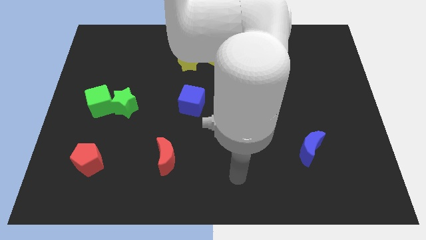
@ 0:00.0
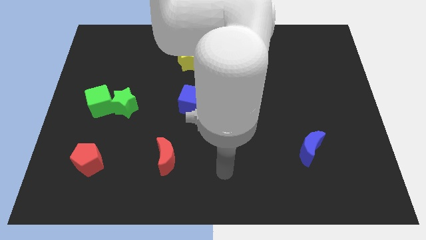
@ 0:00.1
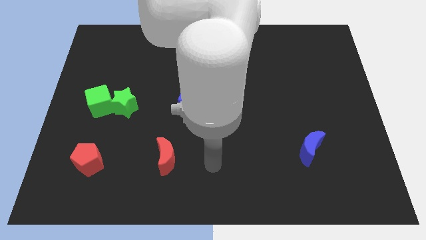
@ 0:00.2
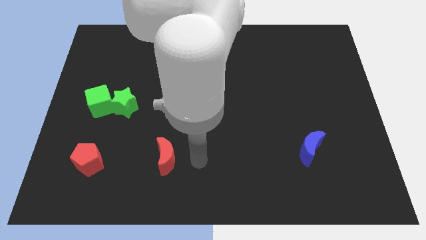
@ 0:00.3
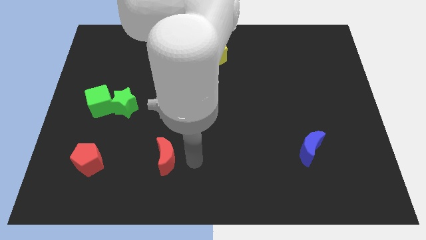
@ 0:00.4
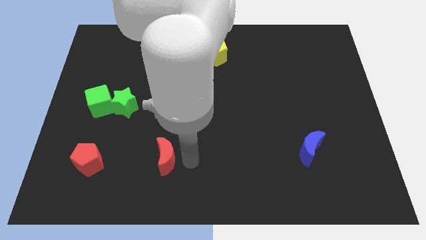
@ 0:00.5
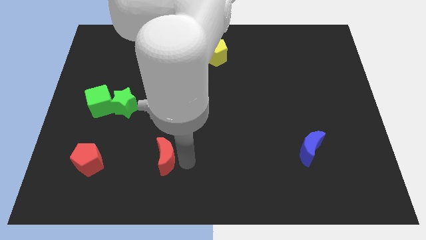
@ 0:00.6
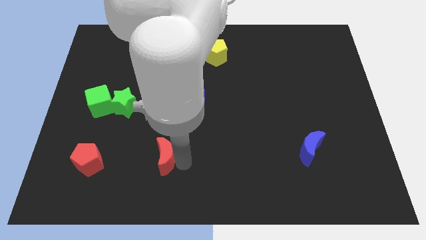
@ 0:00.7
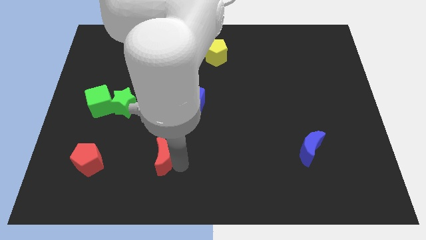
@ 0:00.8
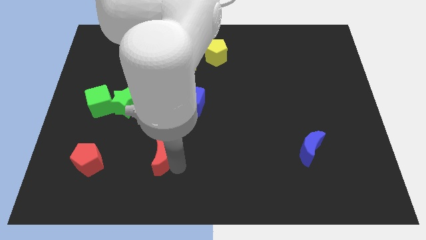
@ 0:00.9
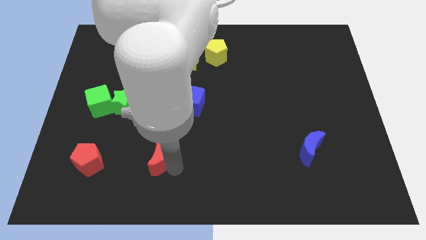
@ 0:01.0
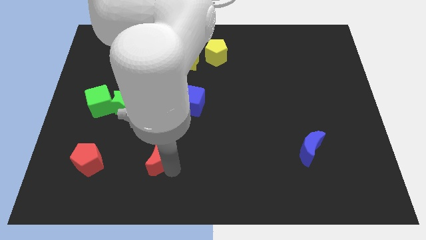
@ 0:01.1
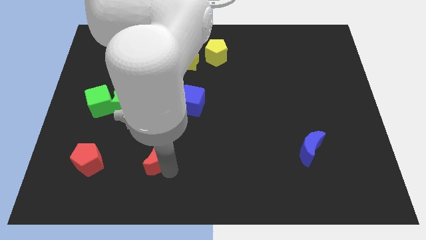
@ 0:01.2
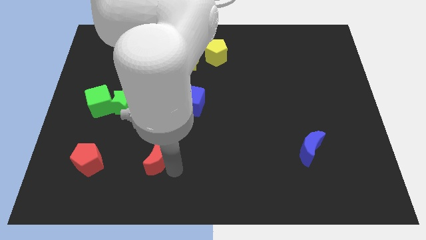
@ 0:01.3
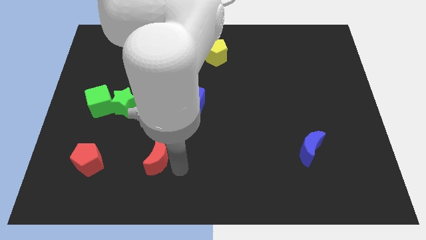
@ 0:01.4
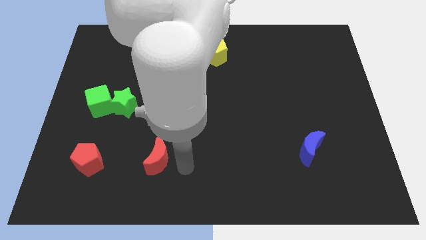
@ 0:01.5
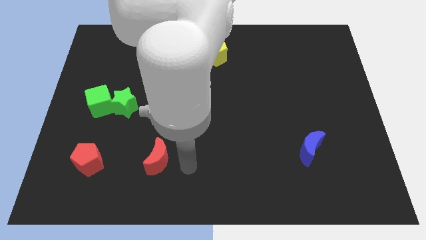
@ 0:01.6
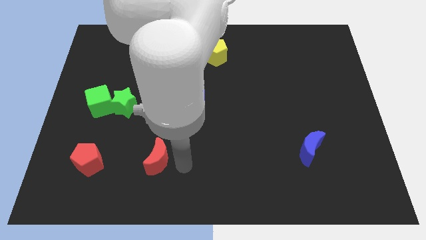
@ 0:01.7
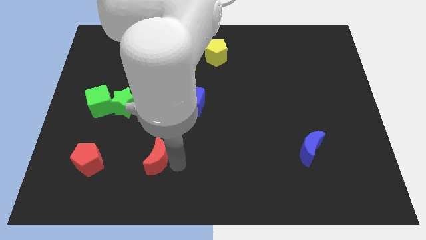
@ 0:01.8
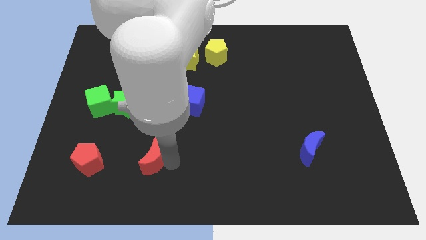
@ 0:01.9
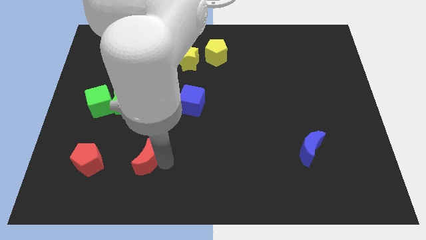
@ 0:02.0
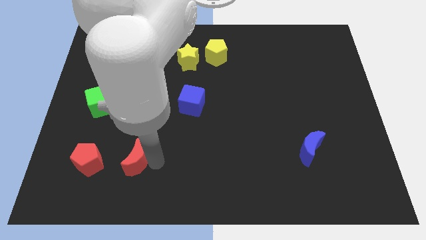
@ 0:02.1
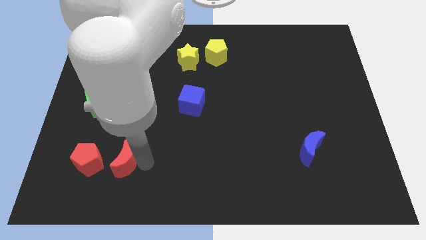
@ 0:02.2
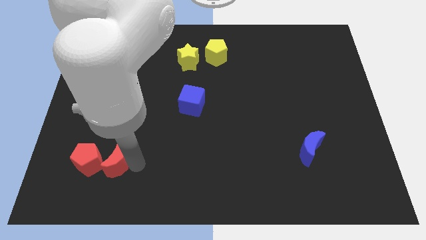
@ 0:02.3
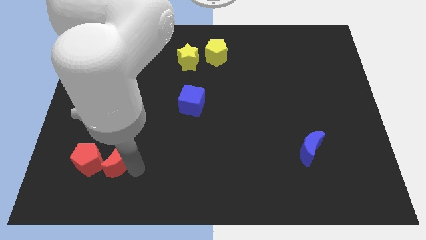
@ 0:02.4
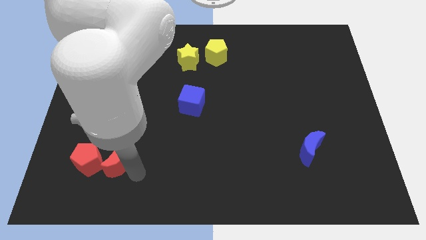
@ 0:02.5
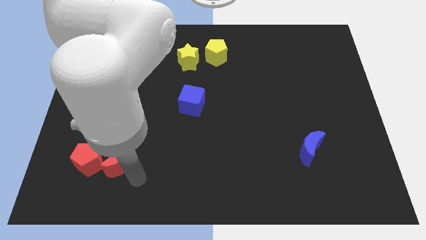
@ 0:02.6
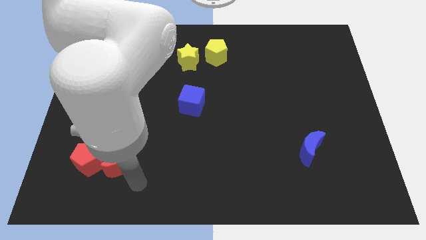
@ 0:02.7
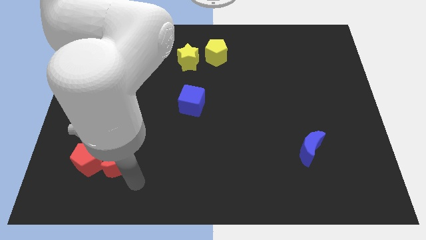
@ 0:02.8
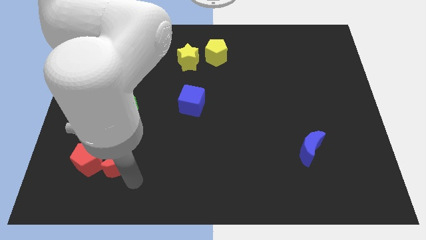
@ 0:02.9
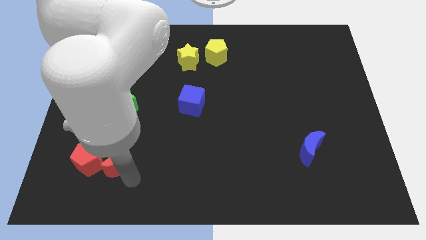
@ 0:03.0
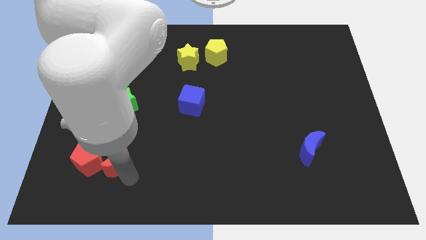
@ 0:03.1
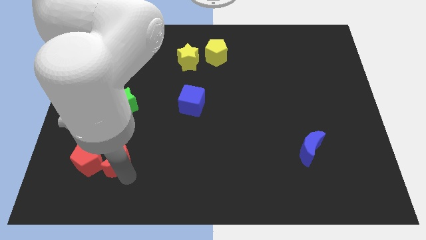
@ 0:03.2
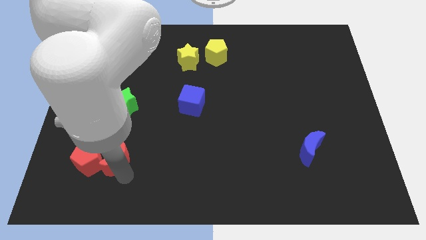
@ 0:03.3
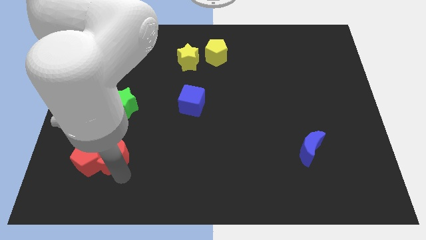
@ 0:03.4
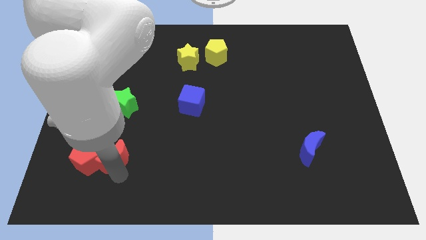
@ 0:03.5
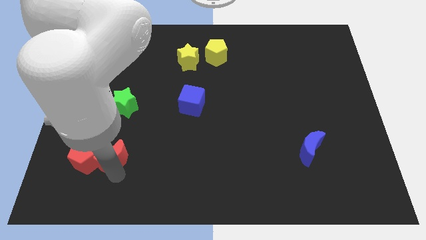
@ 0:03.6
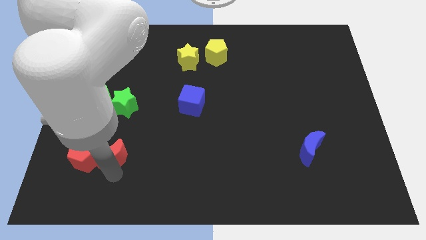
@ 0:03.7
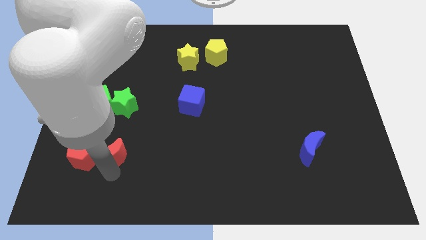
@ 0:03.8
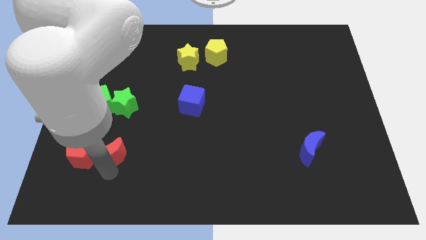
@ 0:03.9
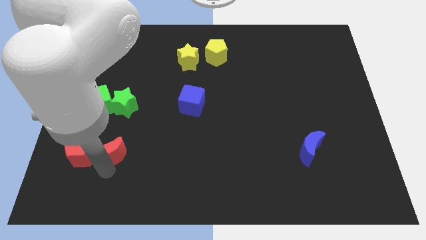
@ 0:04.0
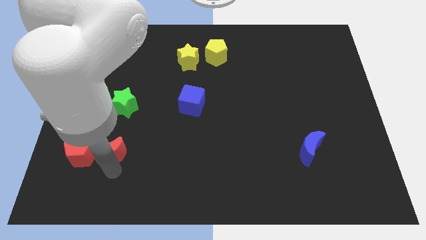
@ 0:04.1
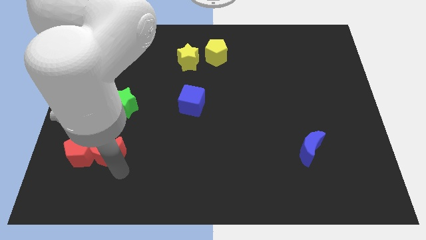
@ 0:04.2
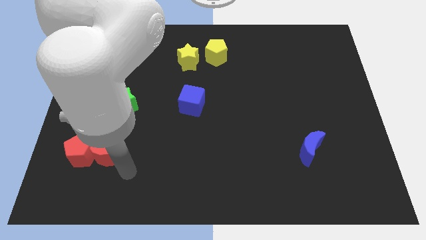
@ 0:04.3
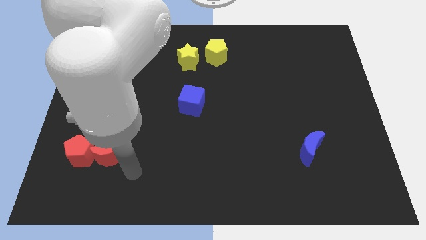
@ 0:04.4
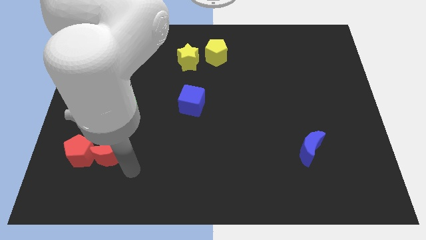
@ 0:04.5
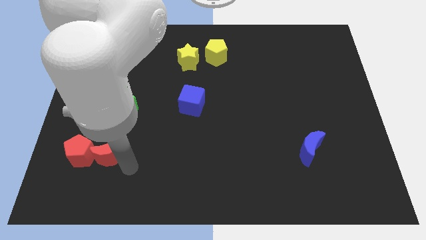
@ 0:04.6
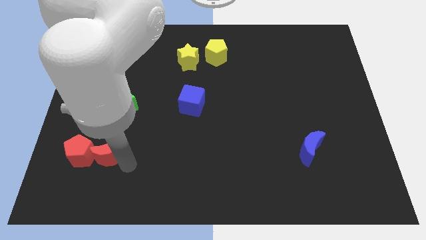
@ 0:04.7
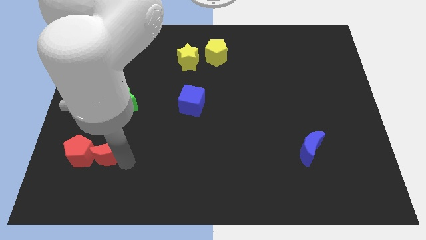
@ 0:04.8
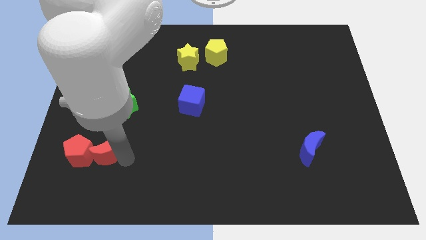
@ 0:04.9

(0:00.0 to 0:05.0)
move the red moon to the bottom of the green cube

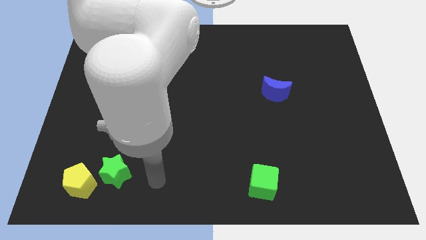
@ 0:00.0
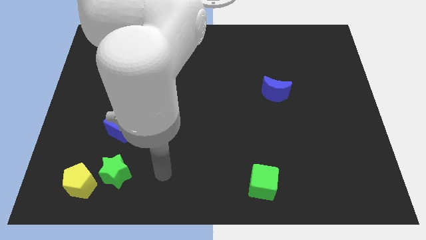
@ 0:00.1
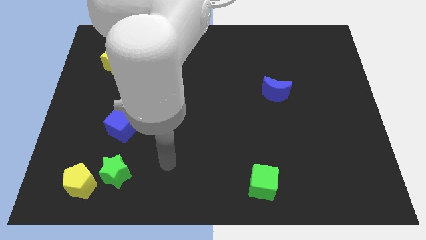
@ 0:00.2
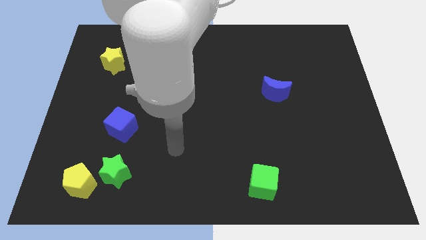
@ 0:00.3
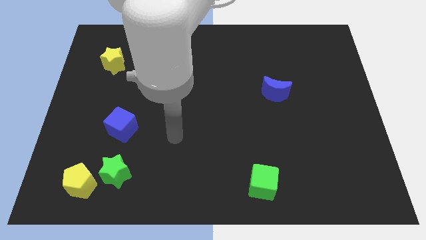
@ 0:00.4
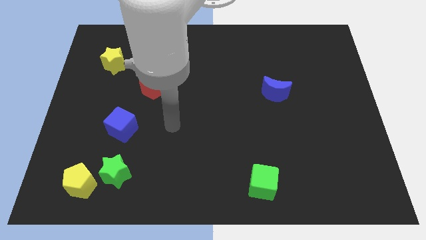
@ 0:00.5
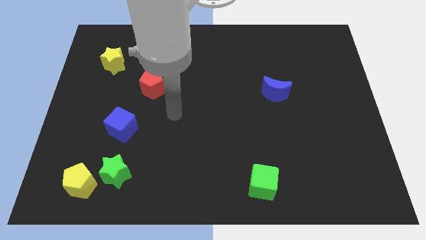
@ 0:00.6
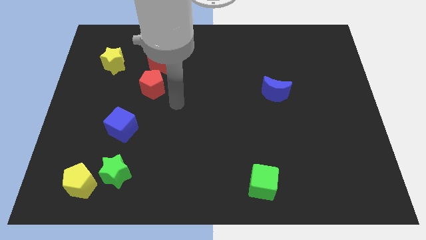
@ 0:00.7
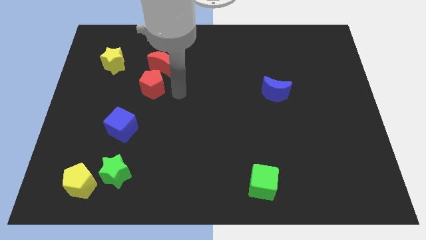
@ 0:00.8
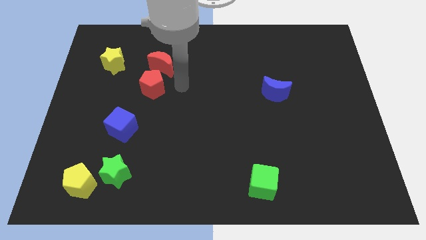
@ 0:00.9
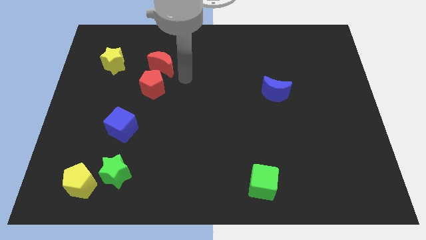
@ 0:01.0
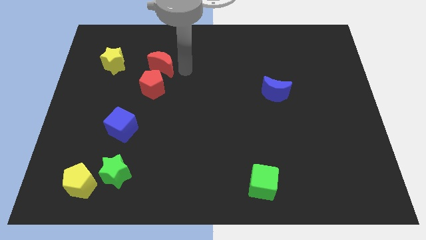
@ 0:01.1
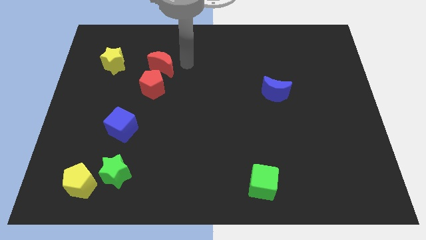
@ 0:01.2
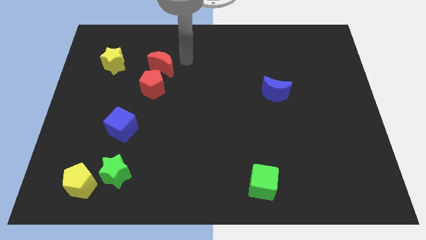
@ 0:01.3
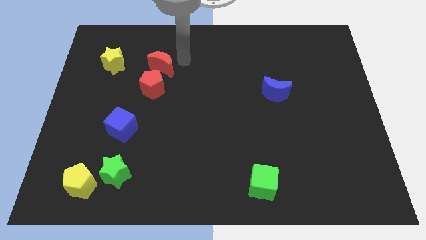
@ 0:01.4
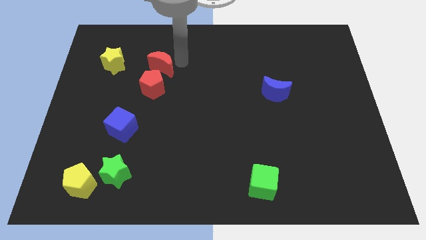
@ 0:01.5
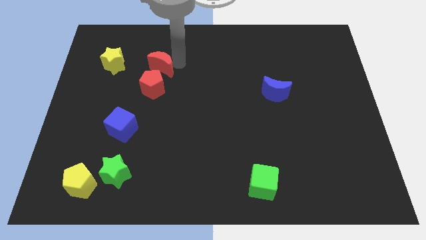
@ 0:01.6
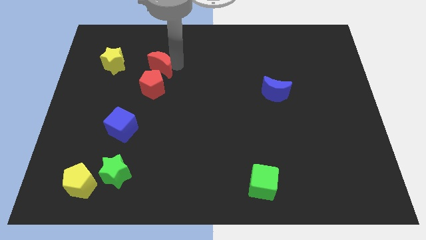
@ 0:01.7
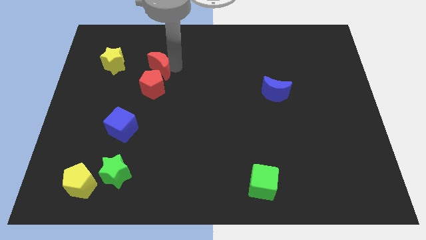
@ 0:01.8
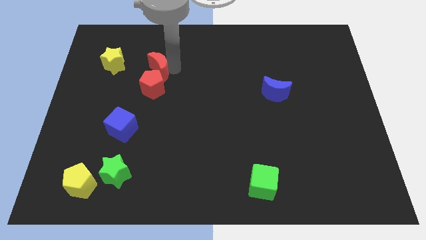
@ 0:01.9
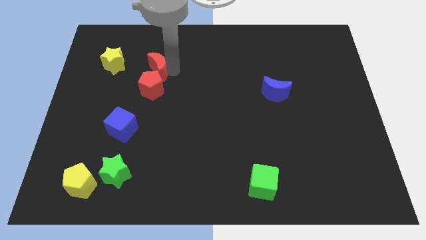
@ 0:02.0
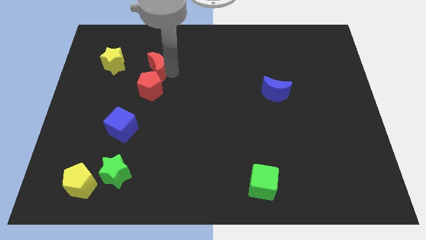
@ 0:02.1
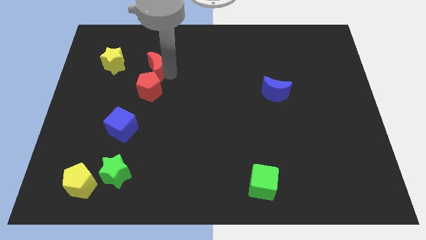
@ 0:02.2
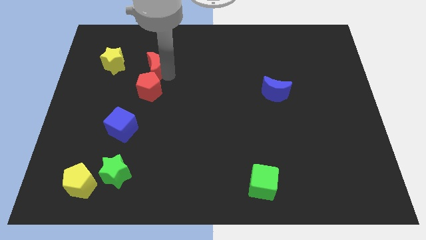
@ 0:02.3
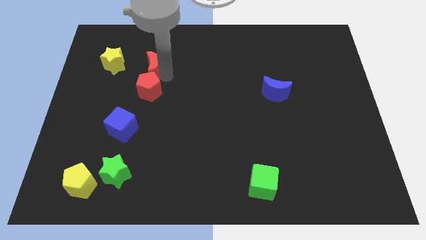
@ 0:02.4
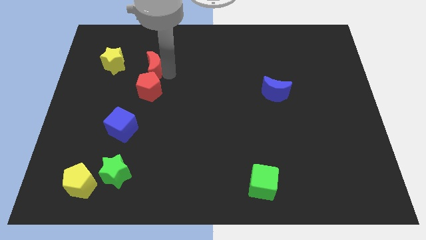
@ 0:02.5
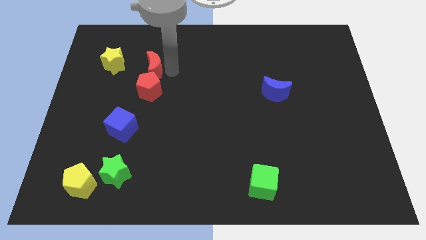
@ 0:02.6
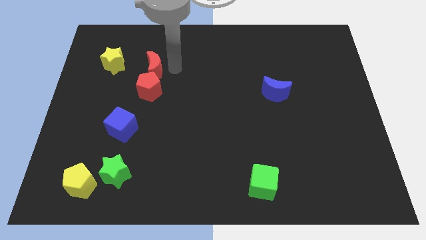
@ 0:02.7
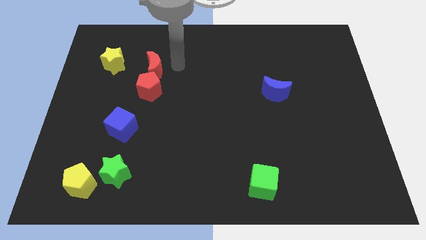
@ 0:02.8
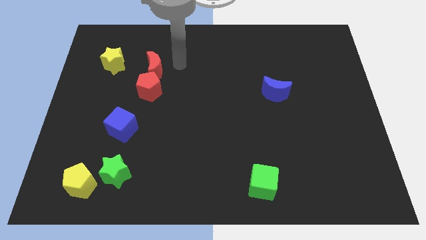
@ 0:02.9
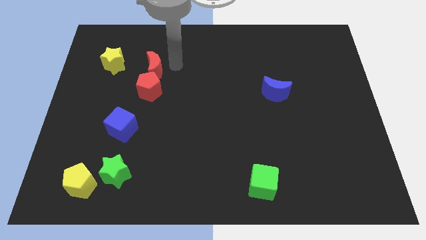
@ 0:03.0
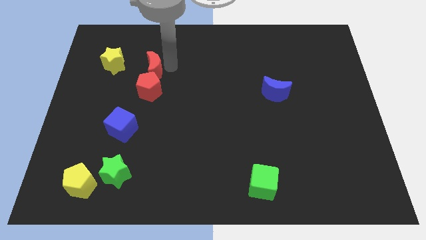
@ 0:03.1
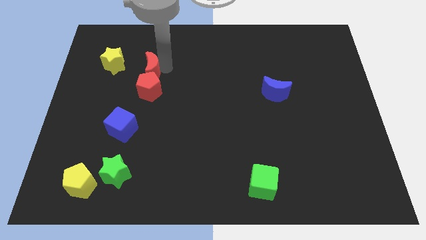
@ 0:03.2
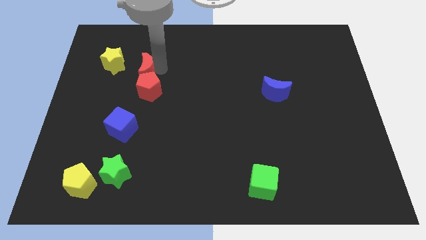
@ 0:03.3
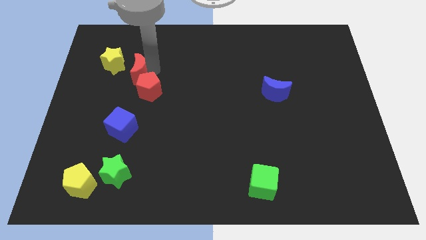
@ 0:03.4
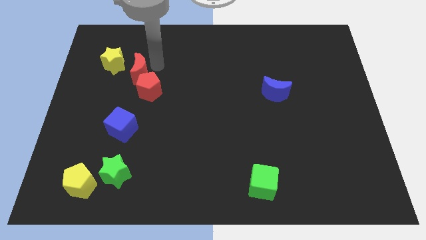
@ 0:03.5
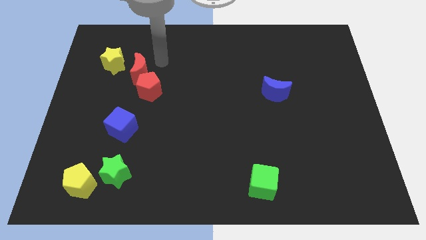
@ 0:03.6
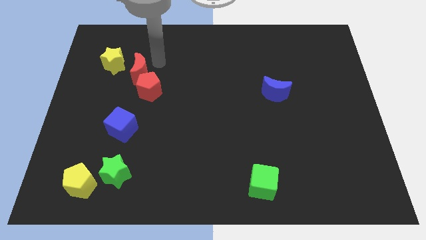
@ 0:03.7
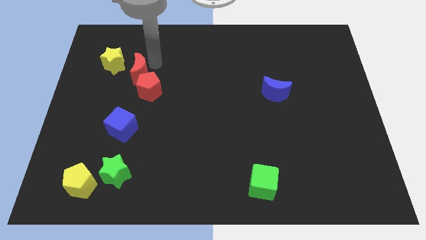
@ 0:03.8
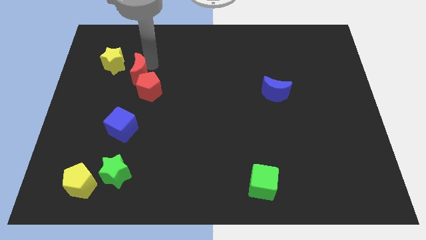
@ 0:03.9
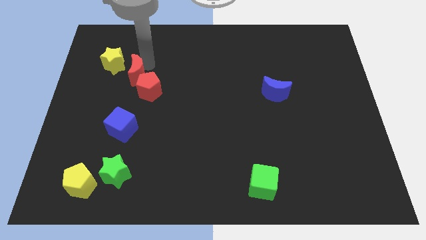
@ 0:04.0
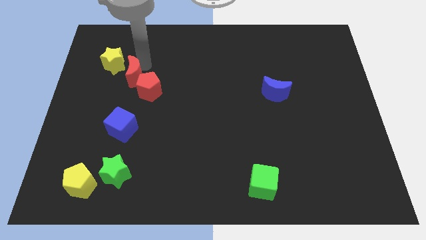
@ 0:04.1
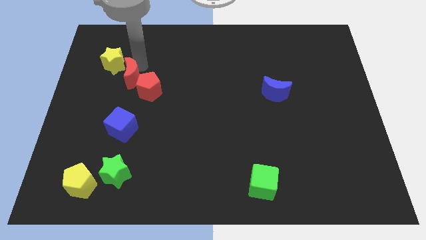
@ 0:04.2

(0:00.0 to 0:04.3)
put the red moon left of the red pentagon
